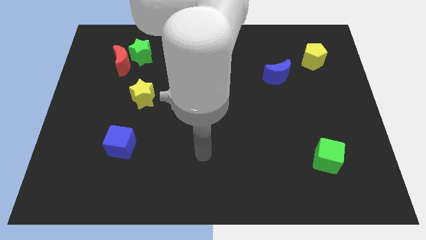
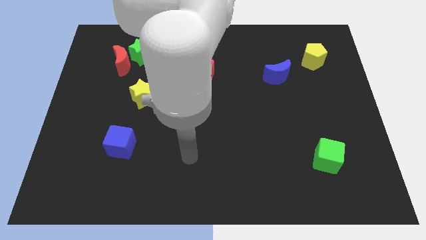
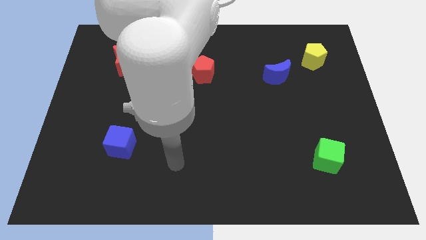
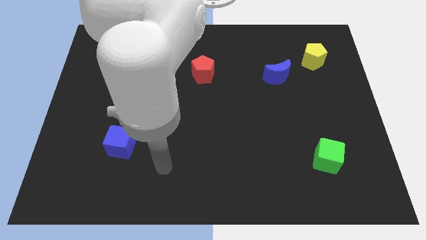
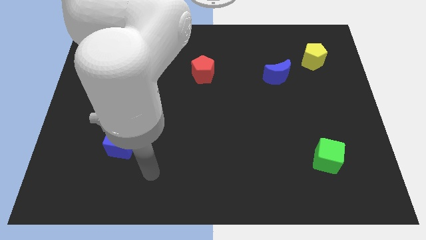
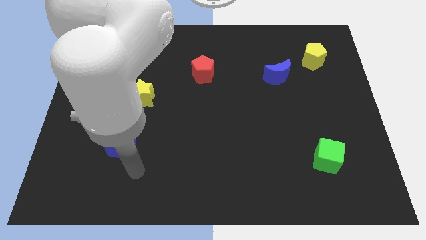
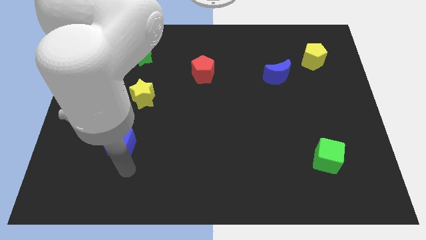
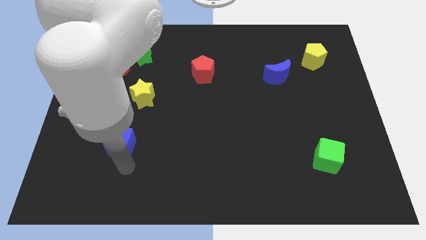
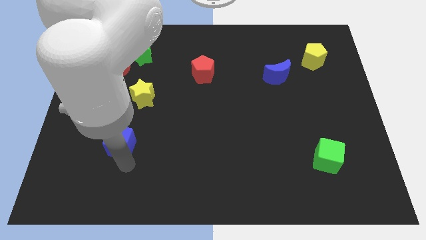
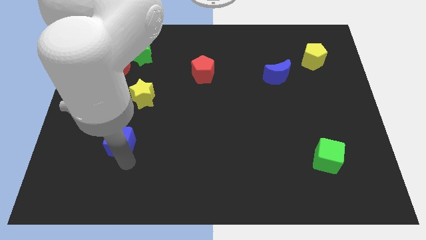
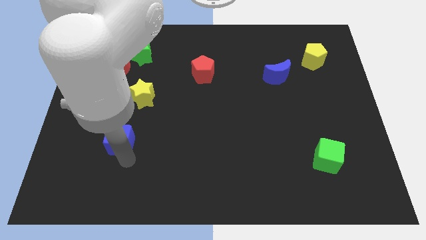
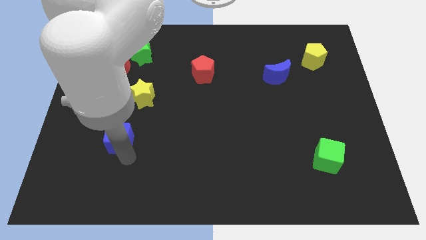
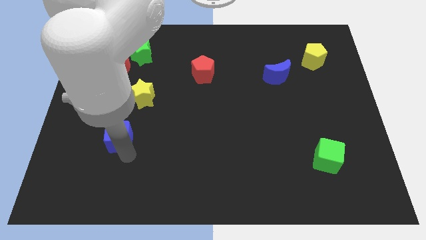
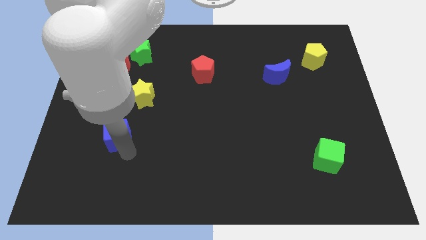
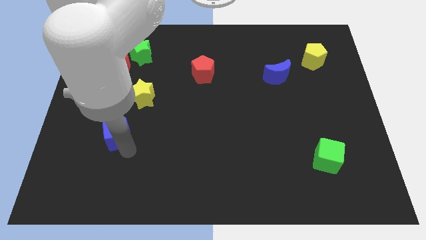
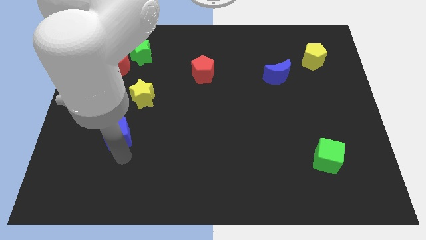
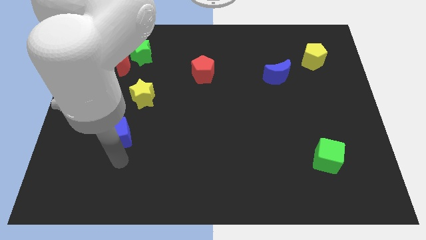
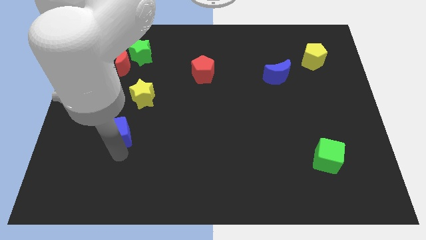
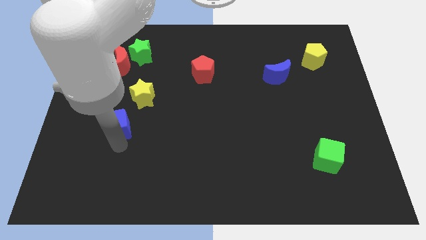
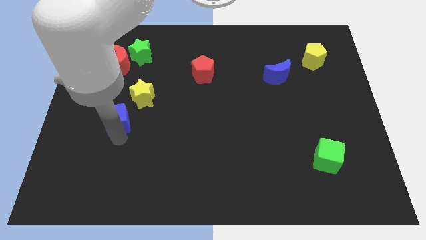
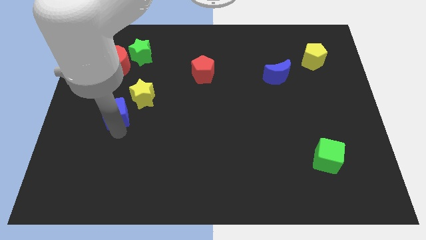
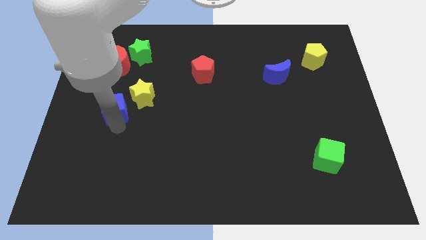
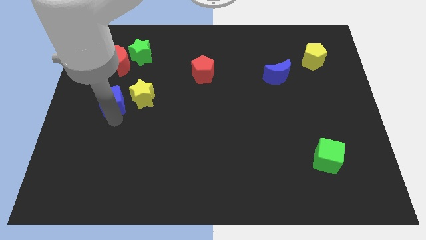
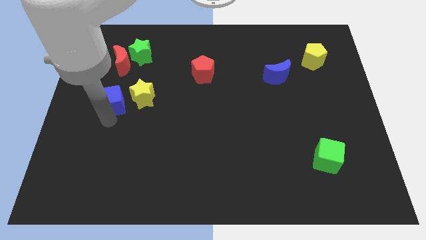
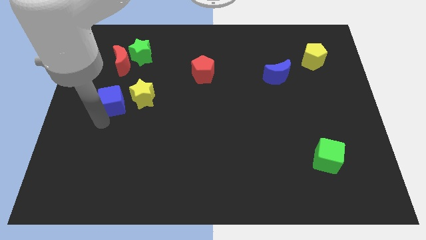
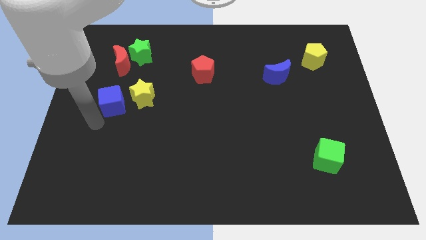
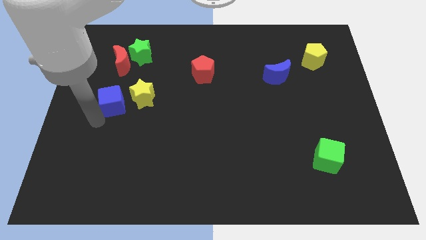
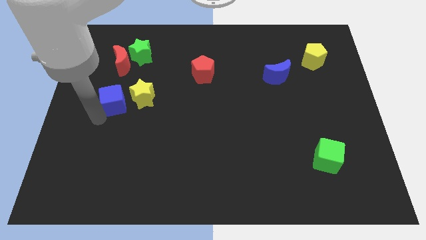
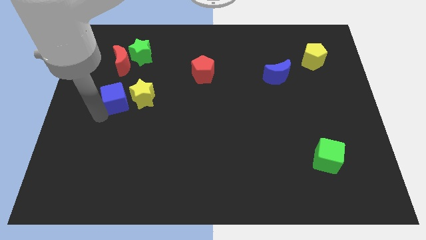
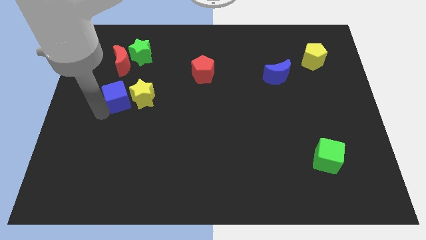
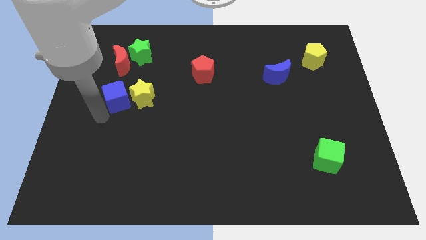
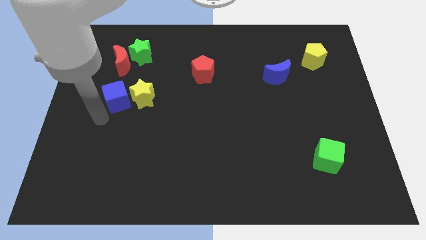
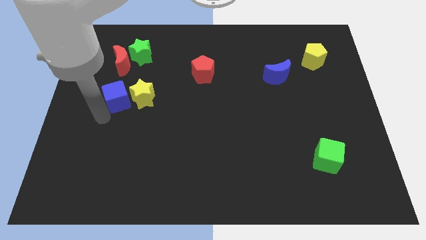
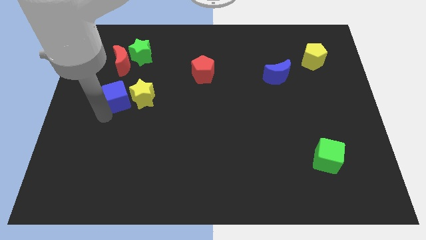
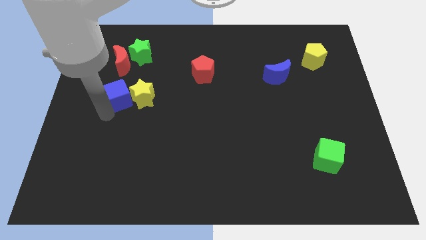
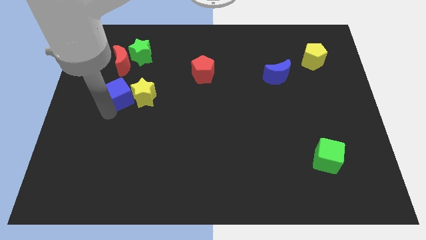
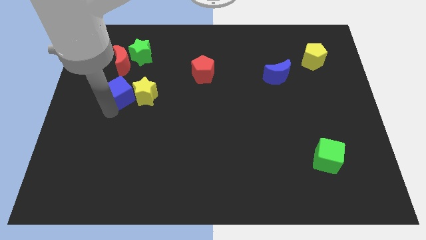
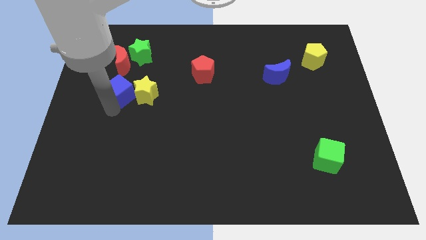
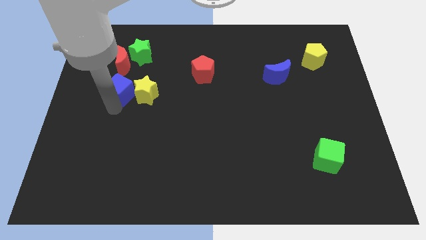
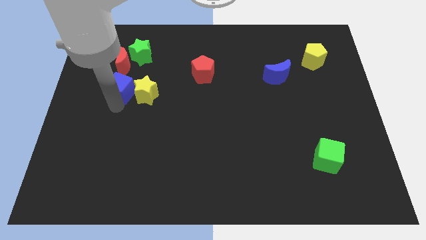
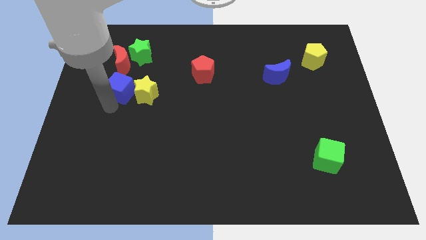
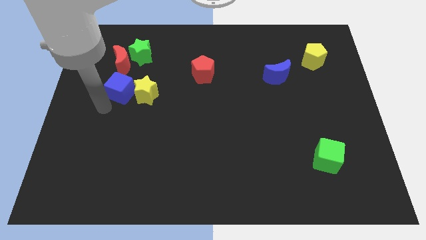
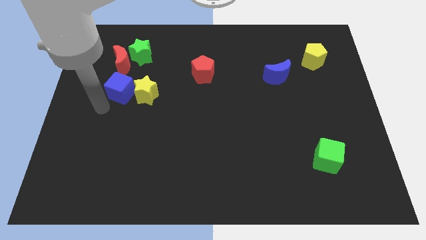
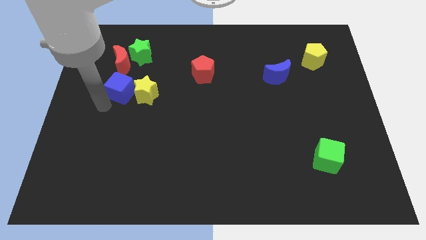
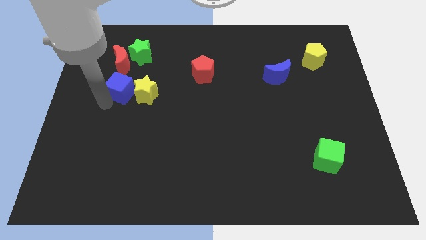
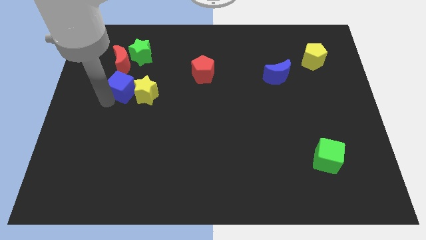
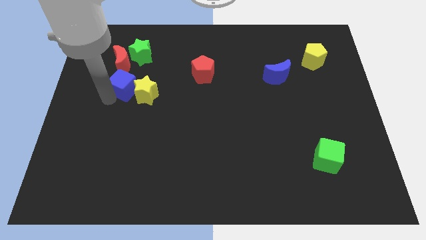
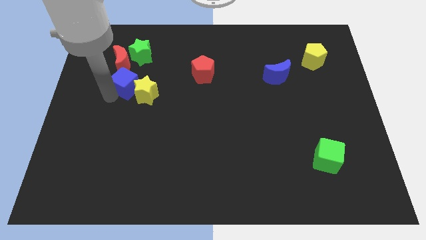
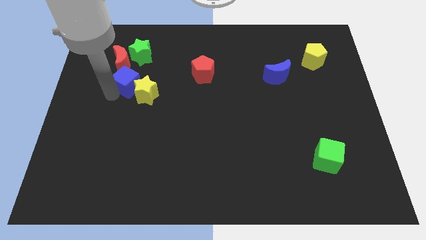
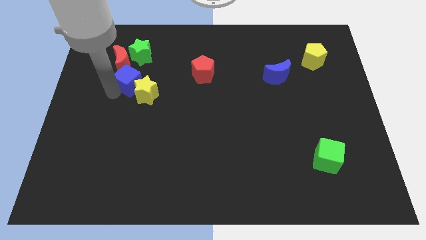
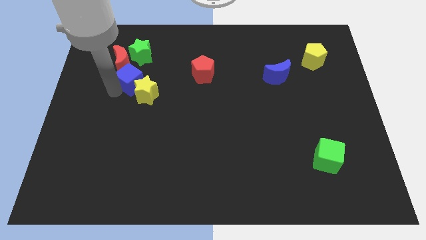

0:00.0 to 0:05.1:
put the blue cube to the top side of the yellow star

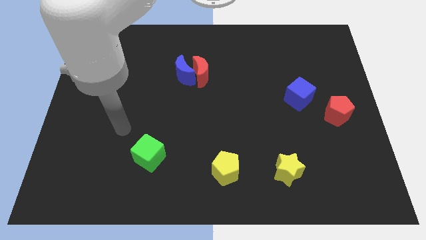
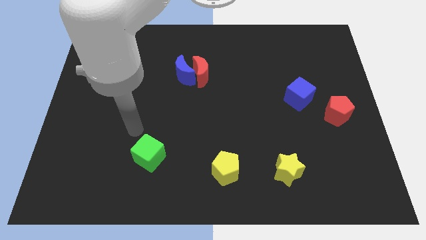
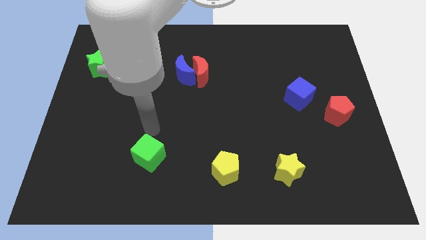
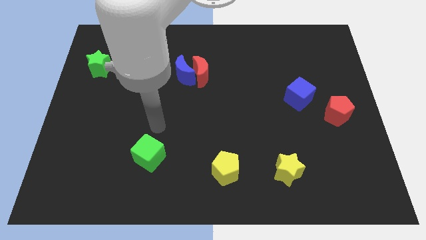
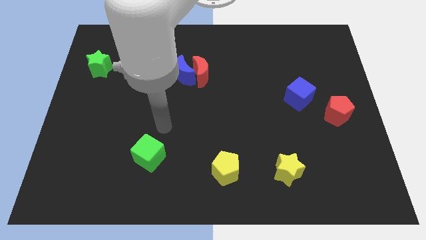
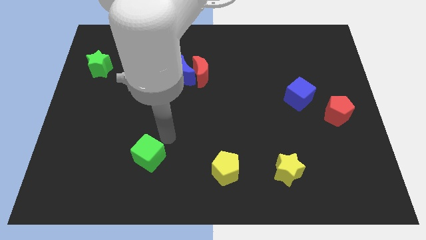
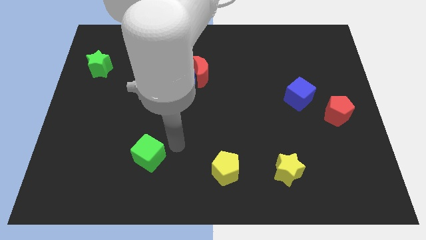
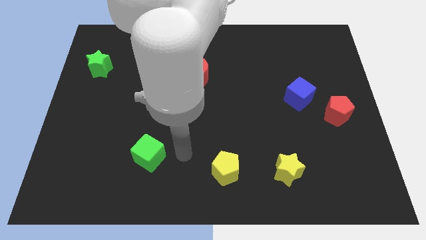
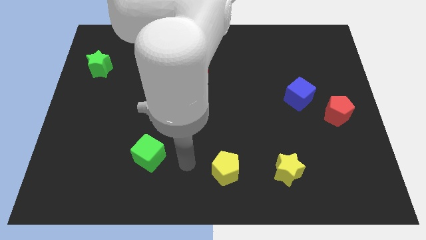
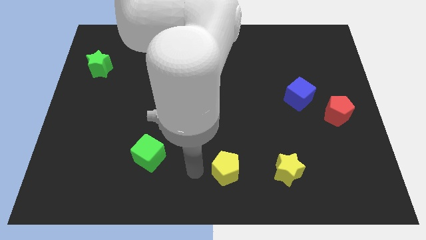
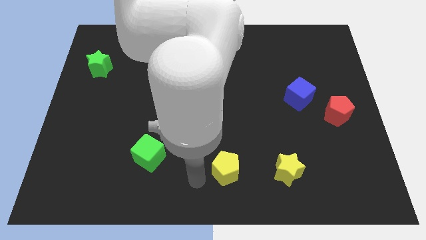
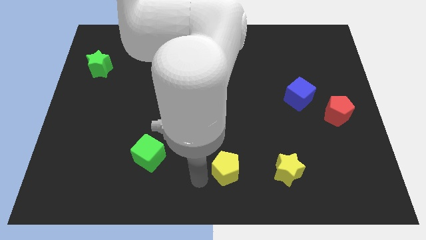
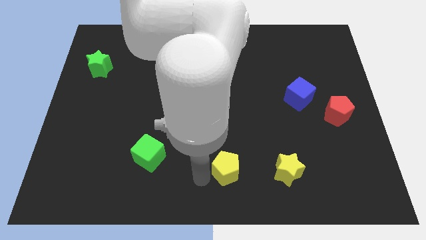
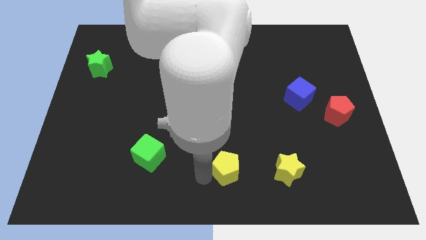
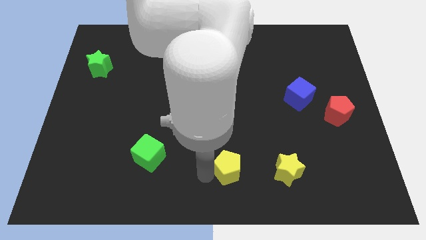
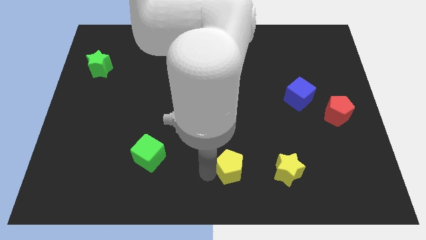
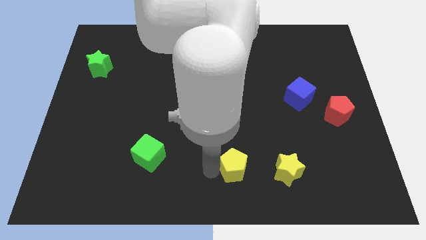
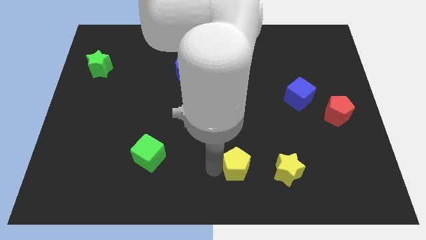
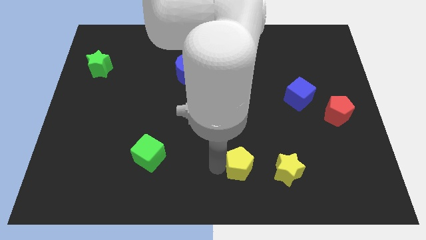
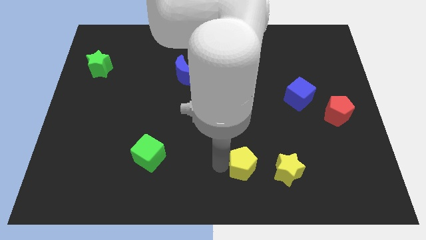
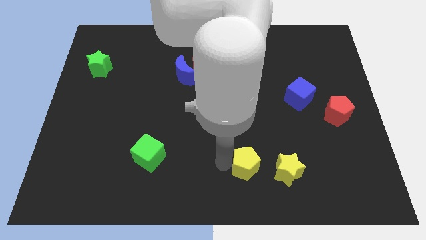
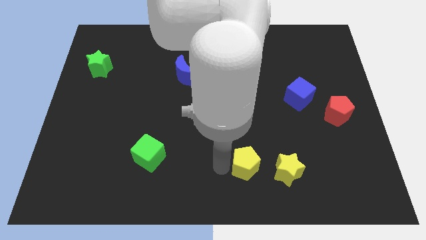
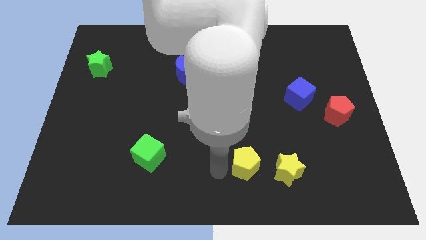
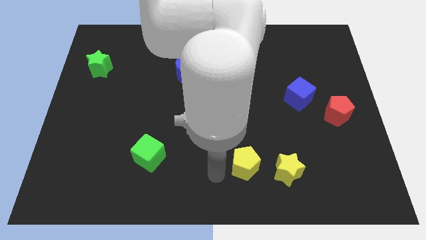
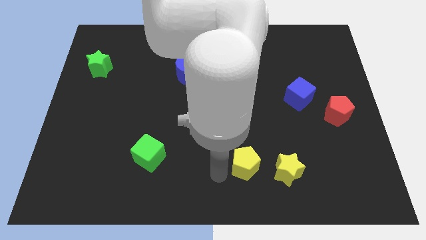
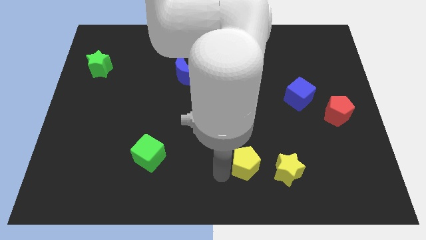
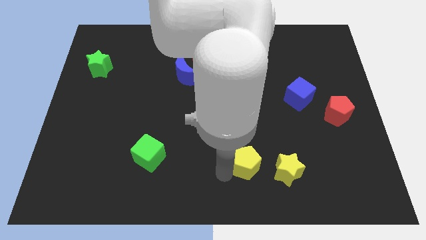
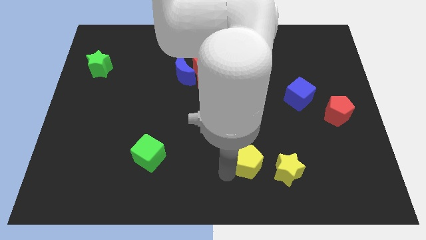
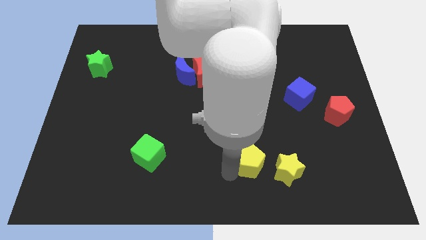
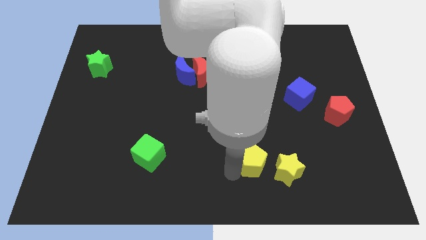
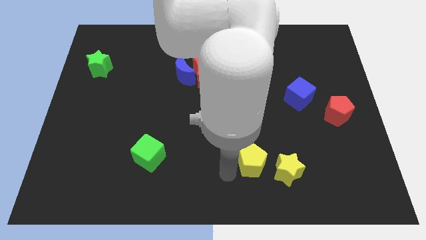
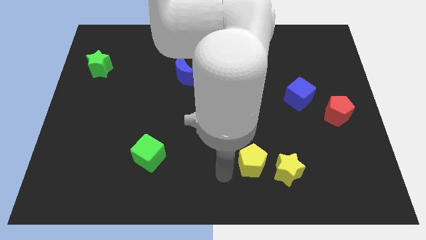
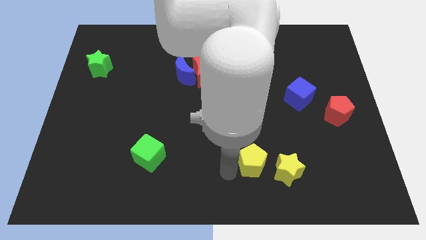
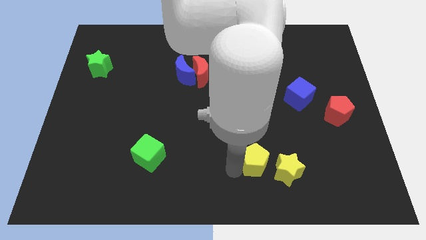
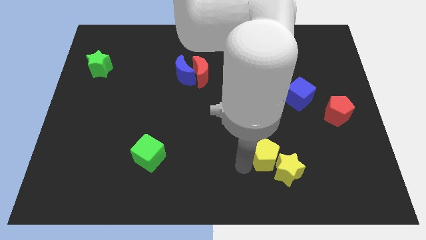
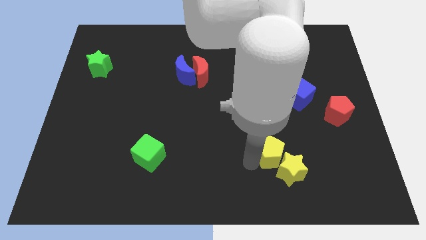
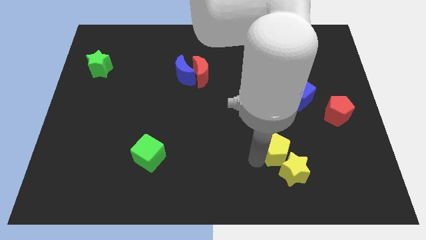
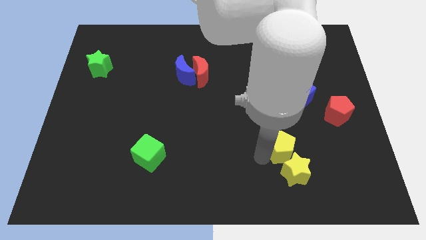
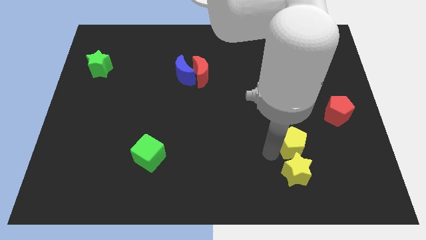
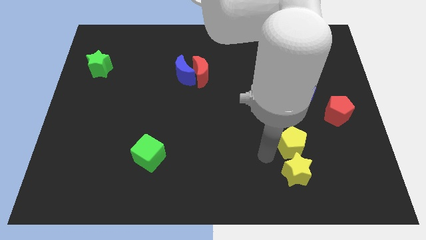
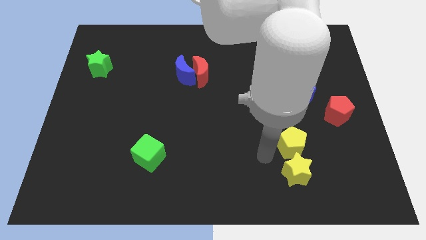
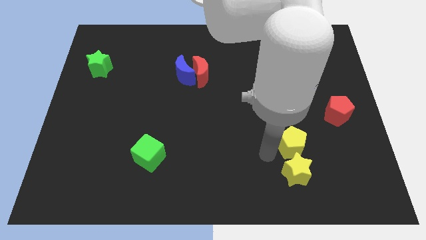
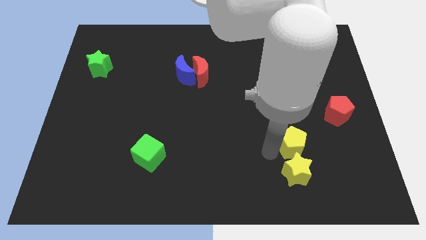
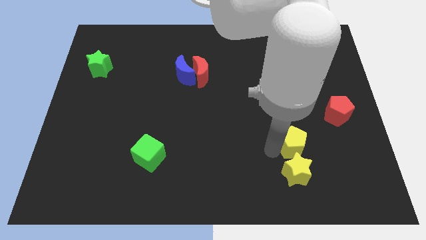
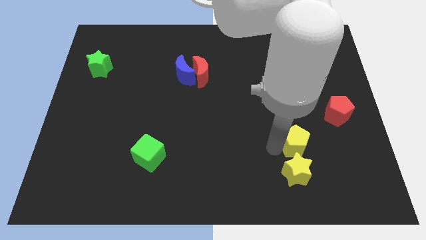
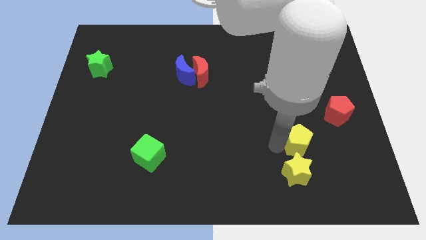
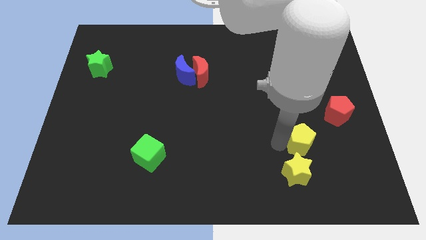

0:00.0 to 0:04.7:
push the yellow pentagon diagonally down and to the left of the red pentagon
